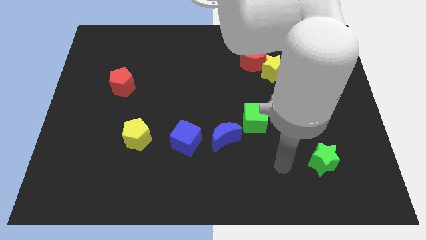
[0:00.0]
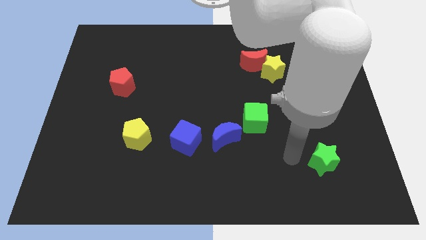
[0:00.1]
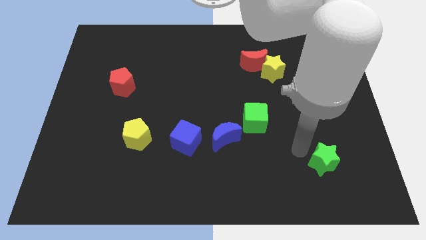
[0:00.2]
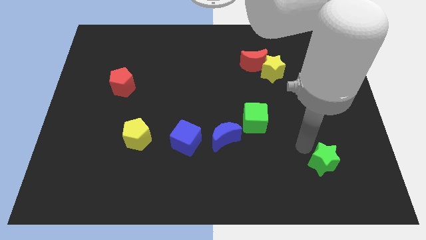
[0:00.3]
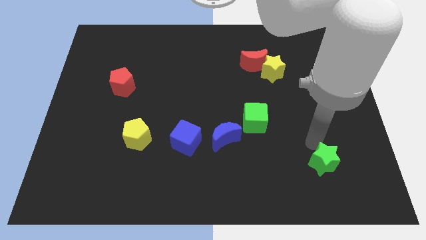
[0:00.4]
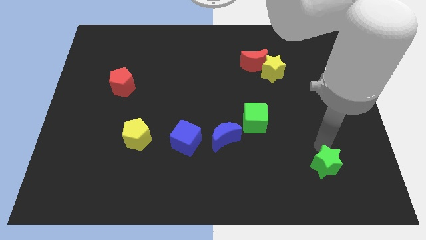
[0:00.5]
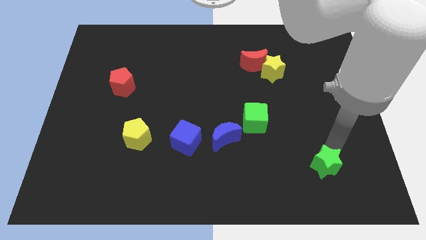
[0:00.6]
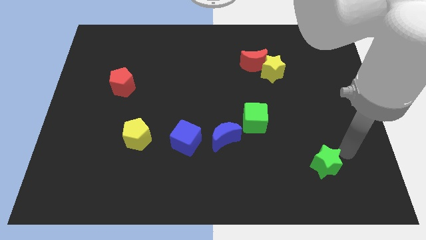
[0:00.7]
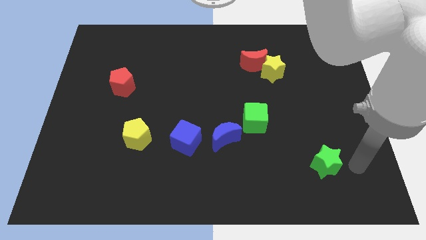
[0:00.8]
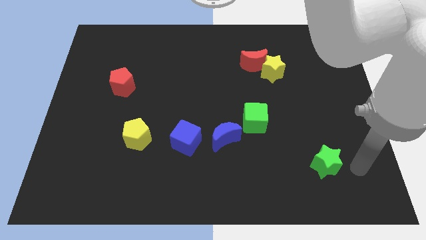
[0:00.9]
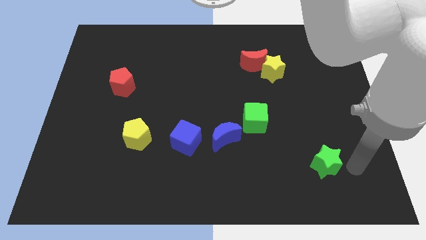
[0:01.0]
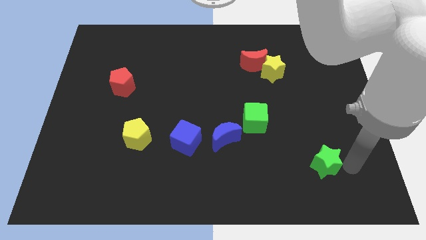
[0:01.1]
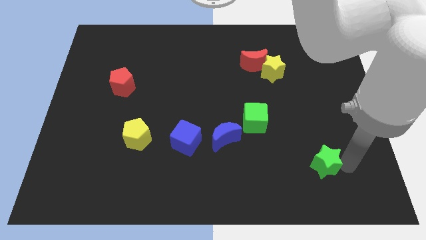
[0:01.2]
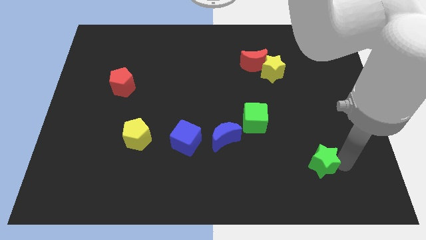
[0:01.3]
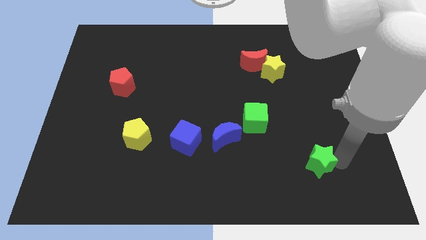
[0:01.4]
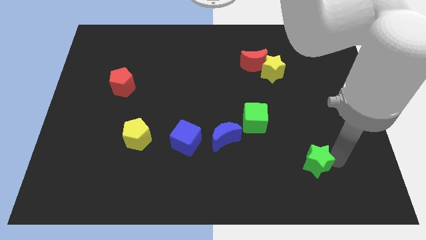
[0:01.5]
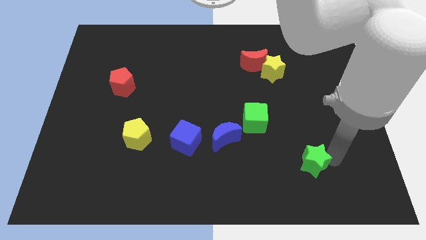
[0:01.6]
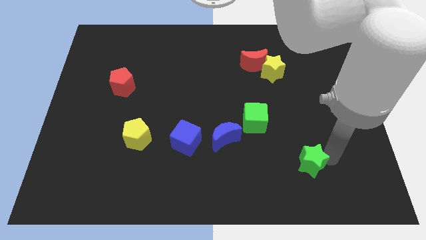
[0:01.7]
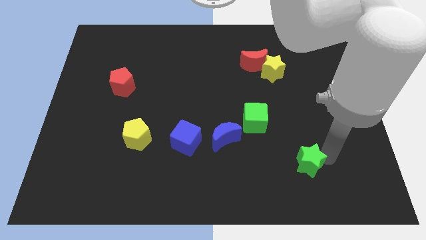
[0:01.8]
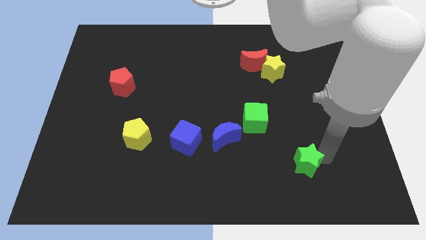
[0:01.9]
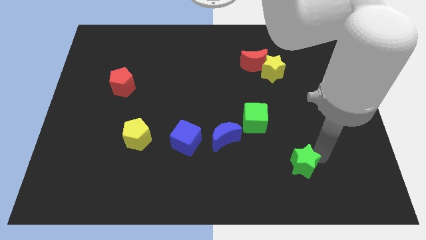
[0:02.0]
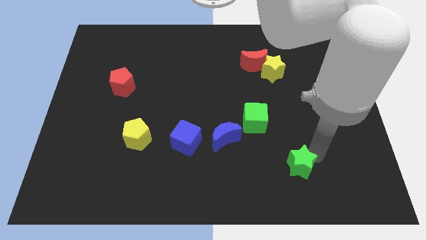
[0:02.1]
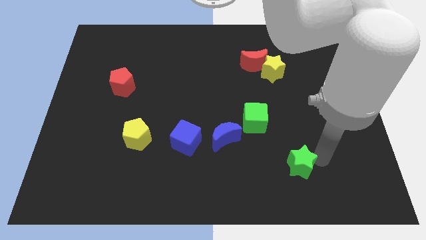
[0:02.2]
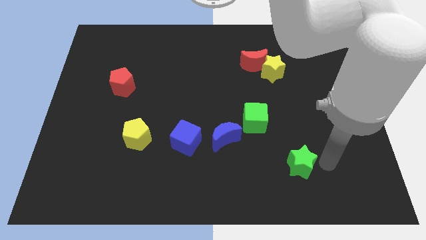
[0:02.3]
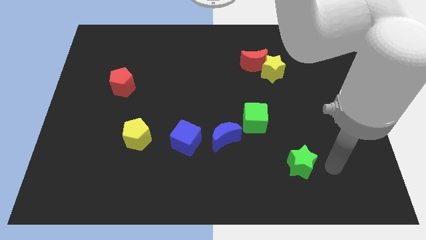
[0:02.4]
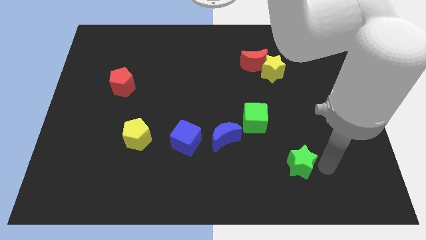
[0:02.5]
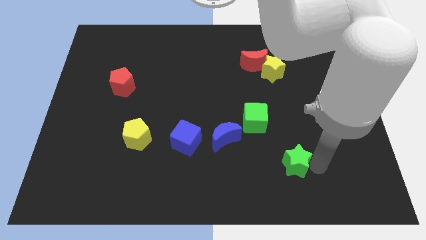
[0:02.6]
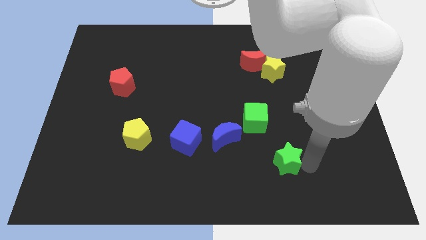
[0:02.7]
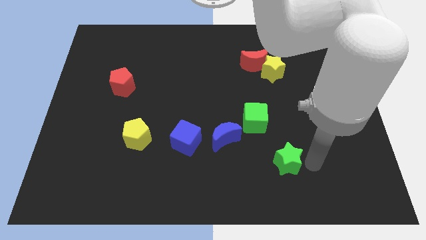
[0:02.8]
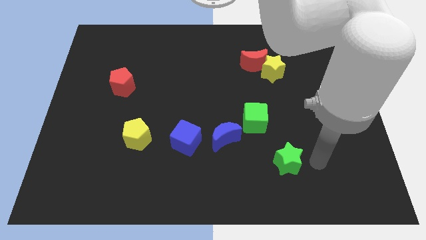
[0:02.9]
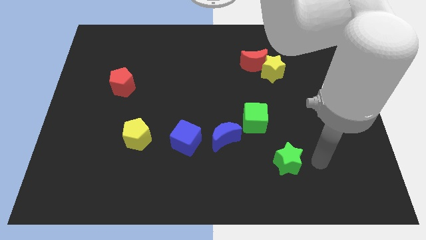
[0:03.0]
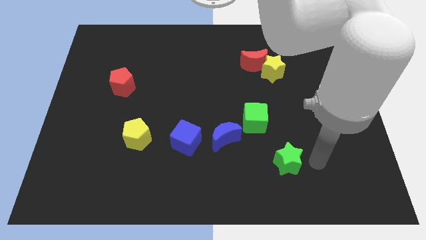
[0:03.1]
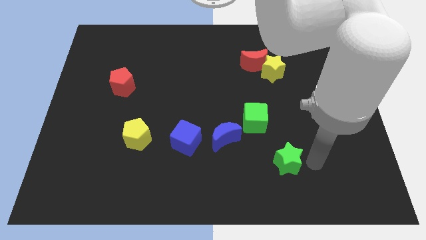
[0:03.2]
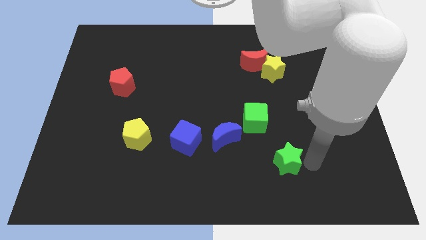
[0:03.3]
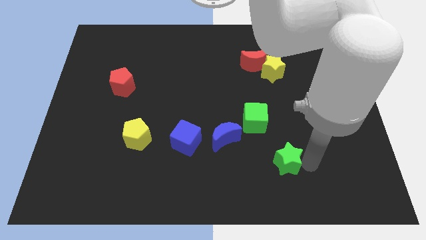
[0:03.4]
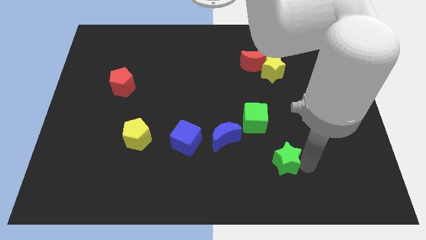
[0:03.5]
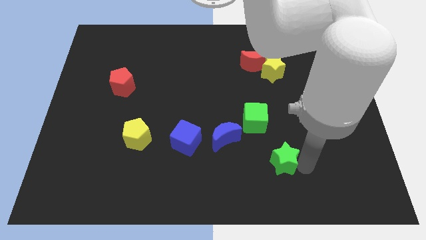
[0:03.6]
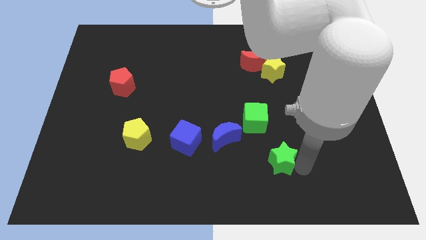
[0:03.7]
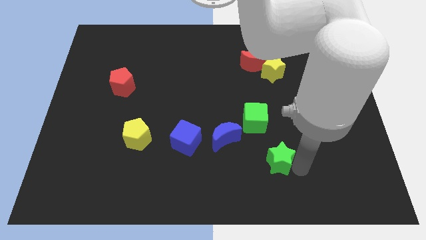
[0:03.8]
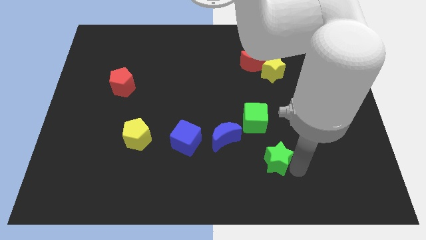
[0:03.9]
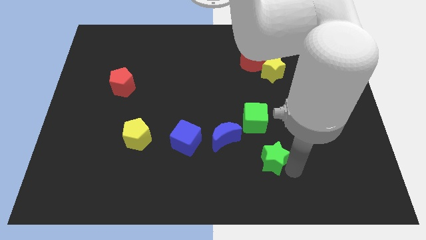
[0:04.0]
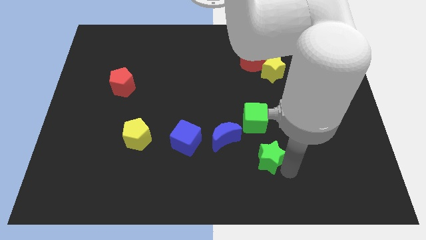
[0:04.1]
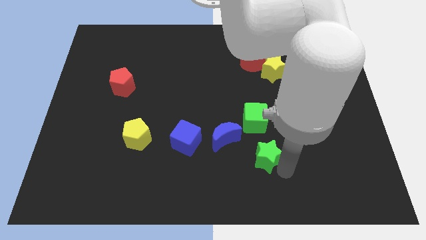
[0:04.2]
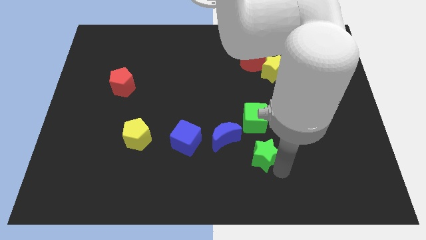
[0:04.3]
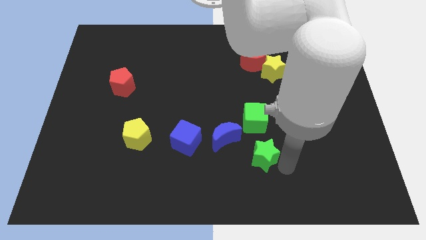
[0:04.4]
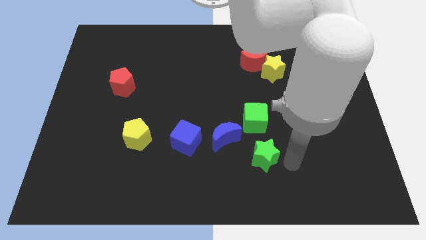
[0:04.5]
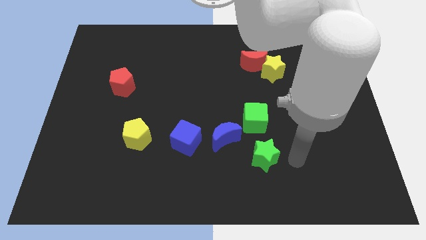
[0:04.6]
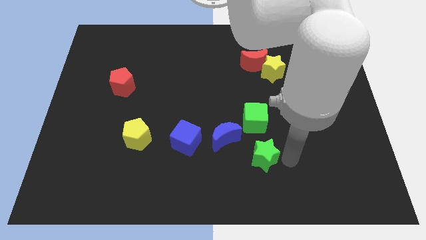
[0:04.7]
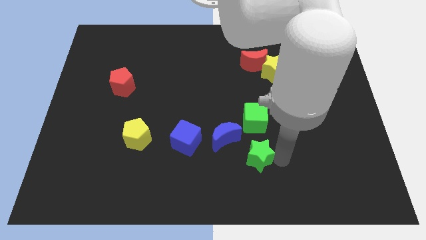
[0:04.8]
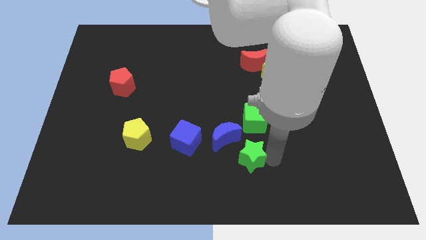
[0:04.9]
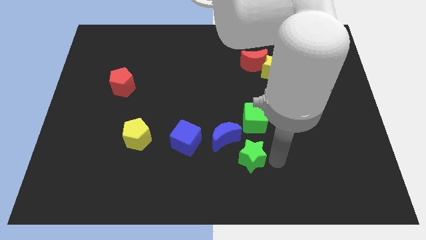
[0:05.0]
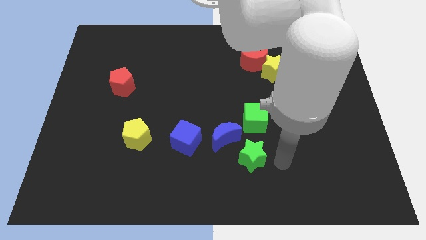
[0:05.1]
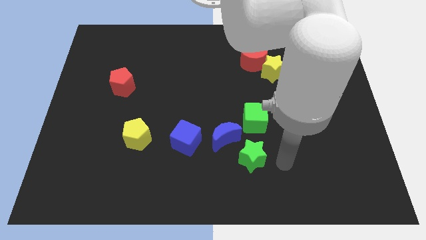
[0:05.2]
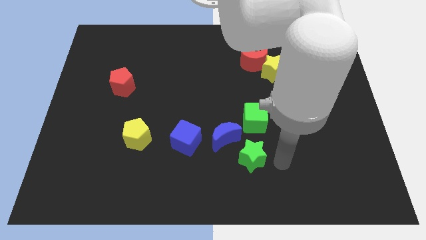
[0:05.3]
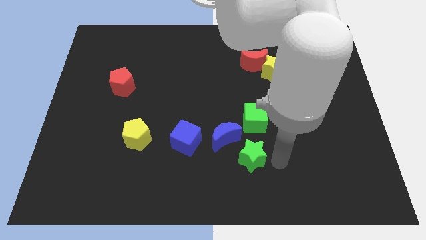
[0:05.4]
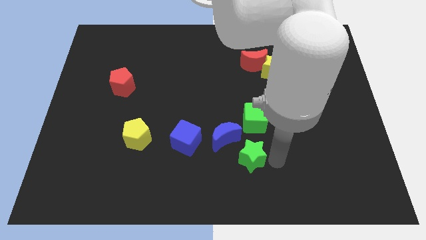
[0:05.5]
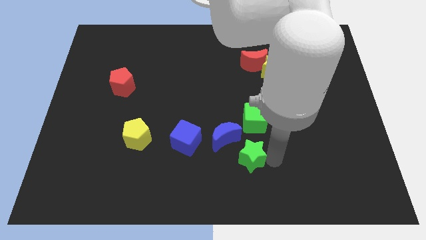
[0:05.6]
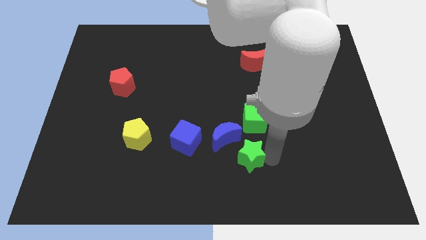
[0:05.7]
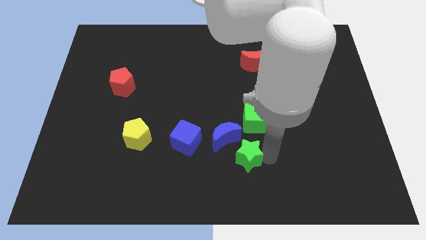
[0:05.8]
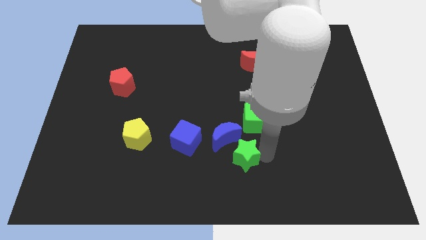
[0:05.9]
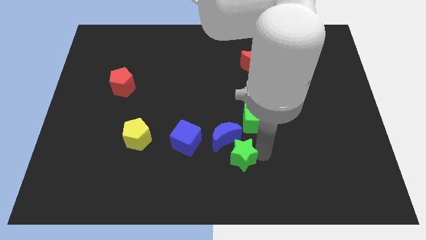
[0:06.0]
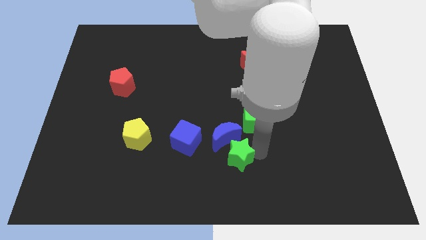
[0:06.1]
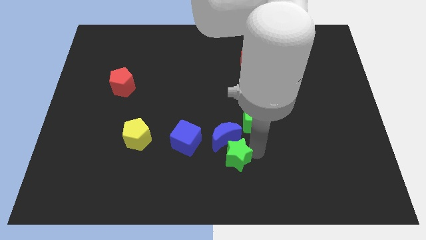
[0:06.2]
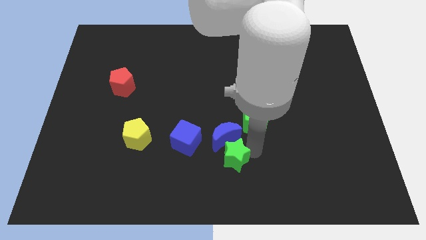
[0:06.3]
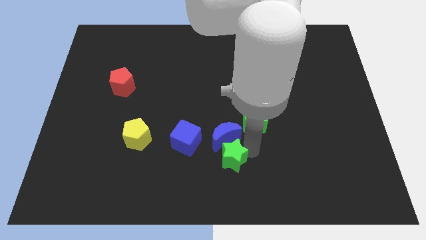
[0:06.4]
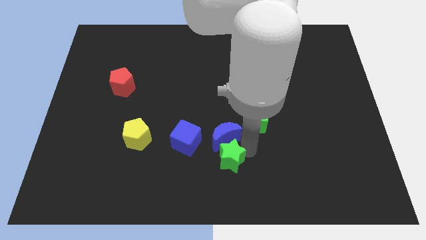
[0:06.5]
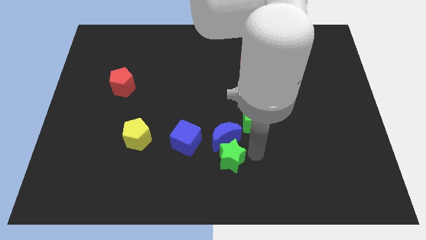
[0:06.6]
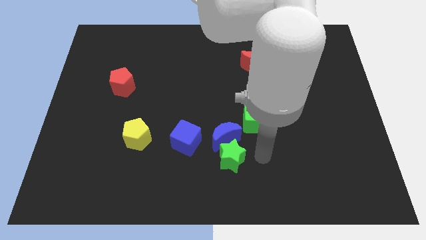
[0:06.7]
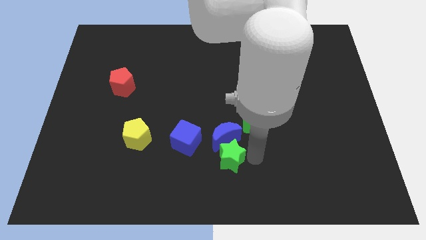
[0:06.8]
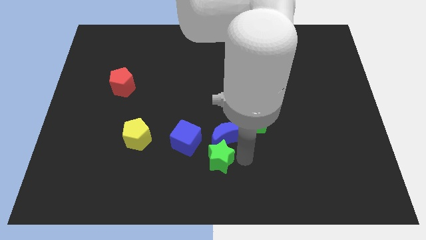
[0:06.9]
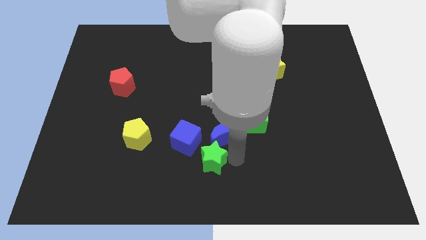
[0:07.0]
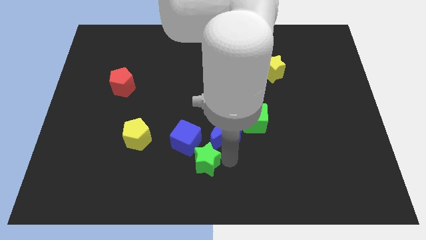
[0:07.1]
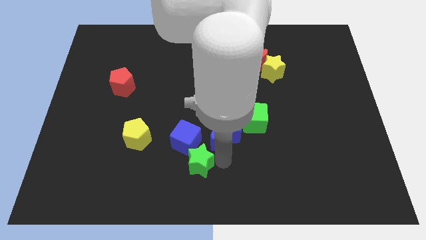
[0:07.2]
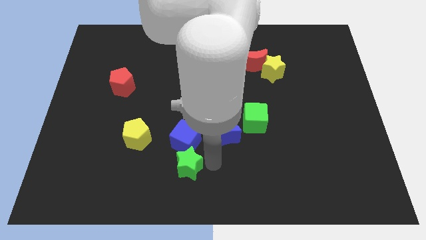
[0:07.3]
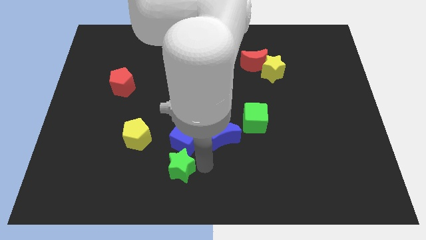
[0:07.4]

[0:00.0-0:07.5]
push the green star to the bottom left side of the blue cube
